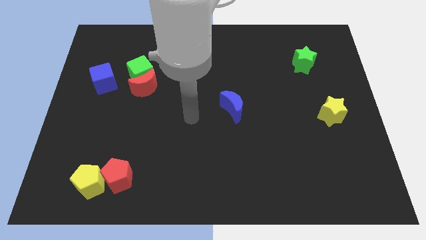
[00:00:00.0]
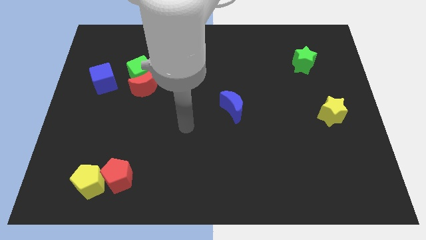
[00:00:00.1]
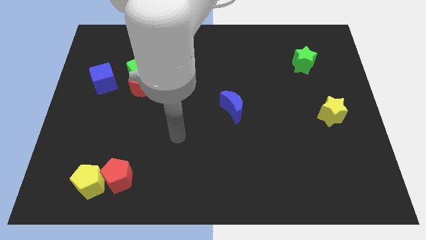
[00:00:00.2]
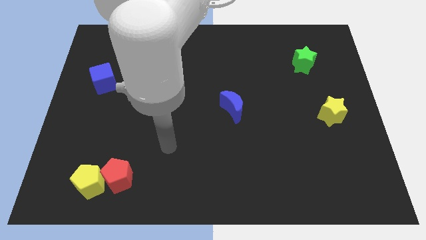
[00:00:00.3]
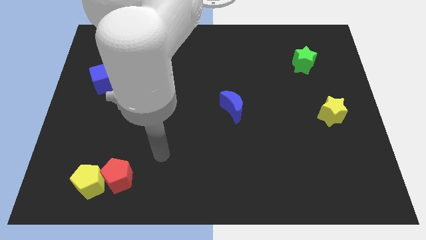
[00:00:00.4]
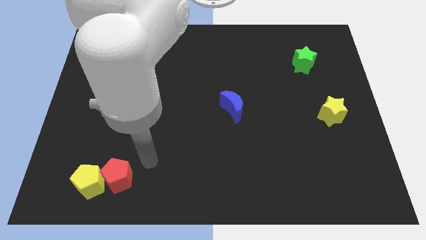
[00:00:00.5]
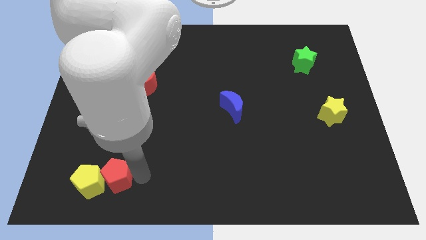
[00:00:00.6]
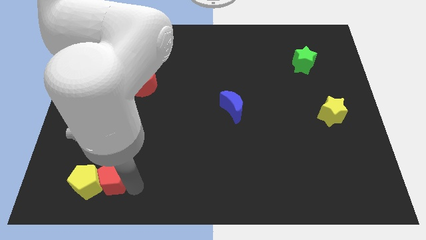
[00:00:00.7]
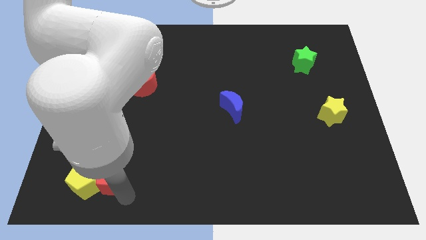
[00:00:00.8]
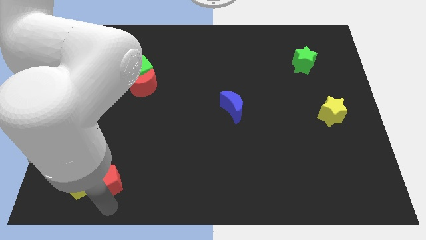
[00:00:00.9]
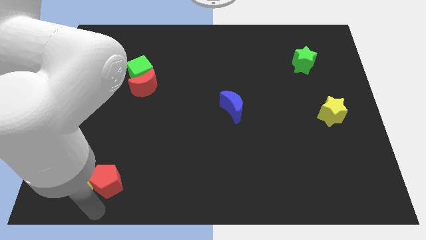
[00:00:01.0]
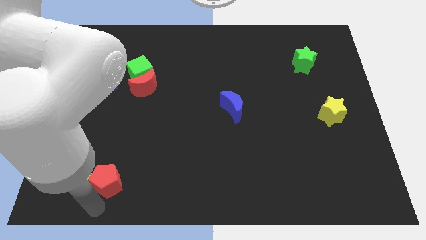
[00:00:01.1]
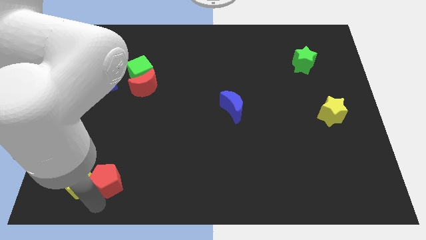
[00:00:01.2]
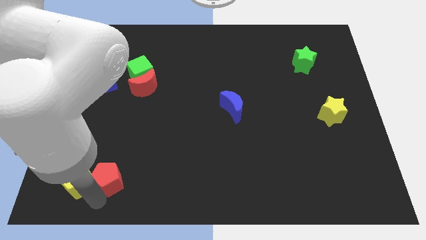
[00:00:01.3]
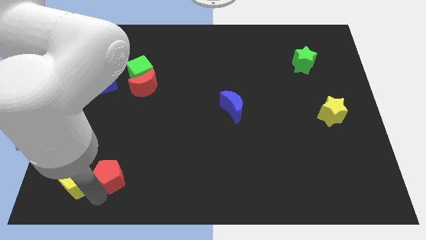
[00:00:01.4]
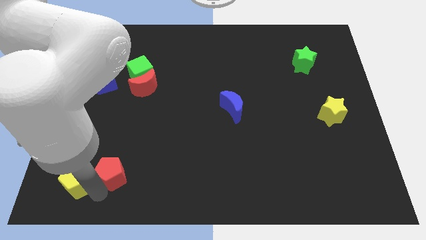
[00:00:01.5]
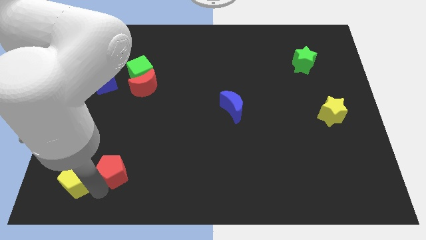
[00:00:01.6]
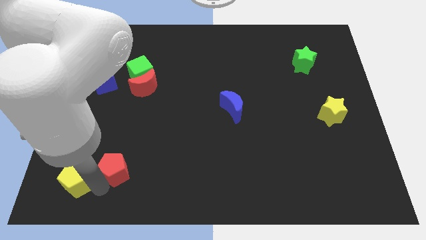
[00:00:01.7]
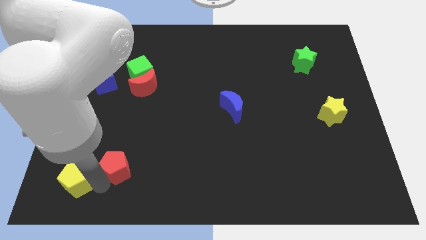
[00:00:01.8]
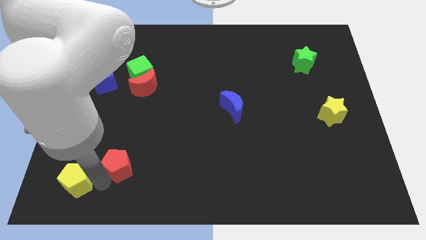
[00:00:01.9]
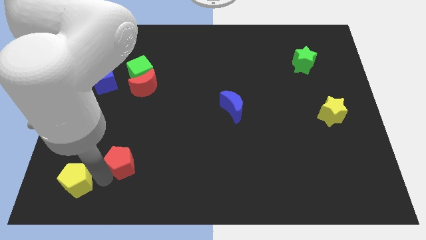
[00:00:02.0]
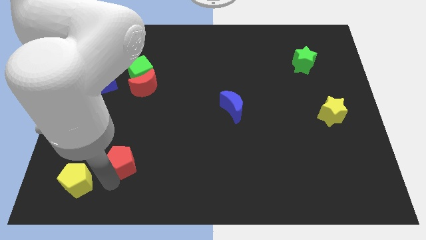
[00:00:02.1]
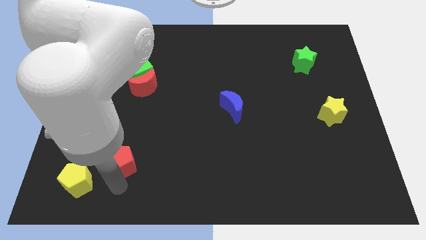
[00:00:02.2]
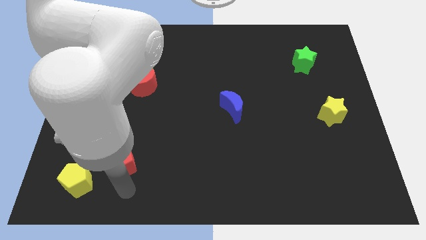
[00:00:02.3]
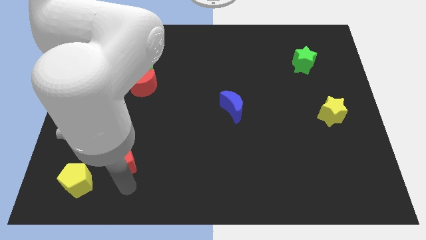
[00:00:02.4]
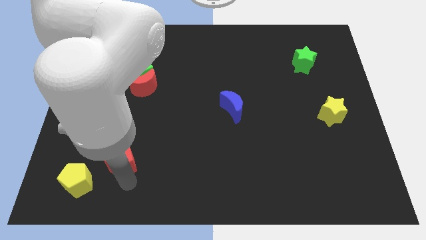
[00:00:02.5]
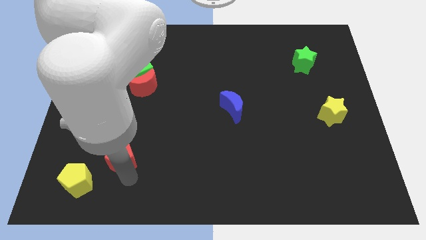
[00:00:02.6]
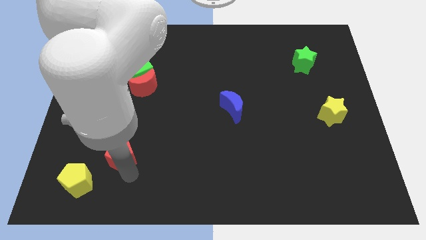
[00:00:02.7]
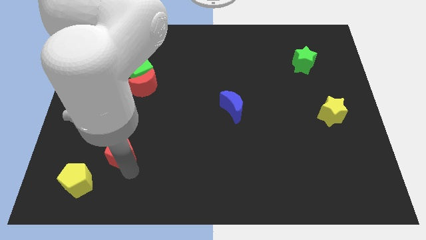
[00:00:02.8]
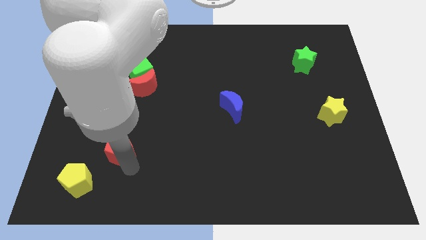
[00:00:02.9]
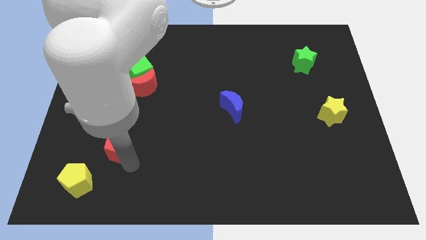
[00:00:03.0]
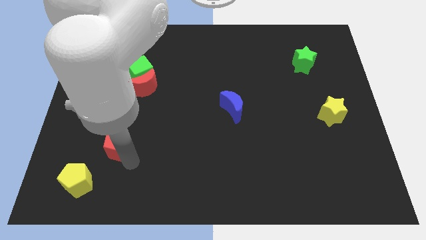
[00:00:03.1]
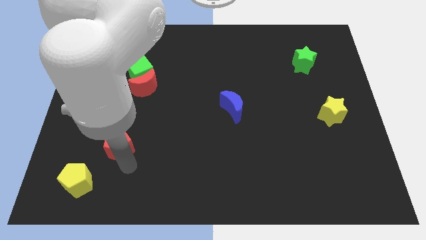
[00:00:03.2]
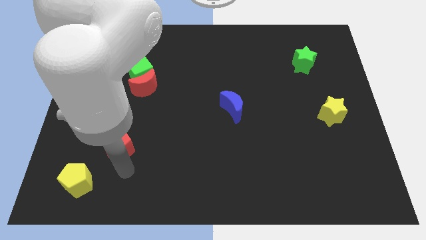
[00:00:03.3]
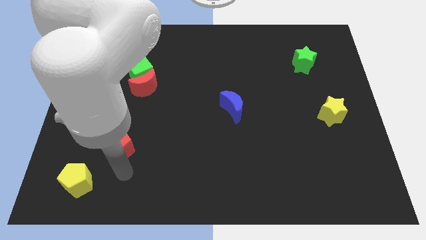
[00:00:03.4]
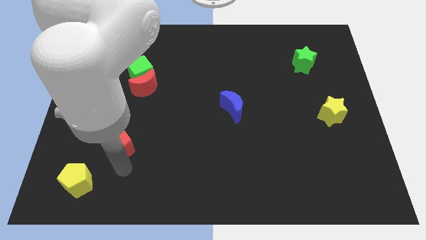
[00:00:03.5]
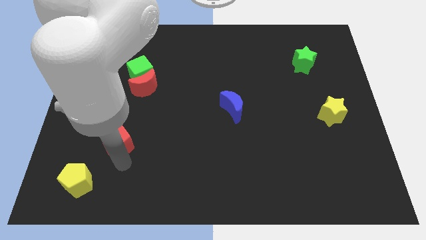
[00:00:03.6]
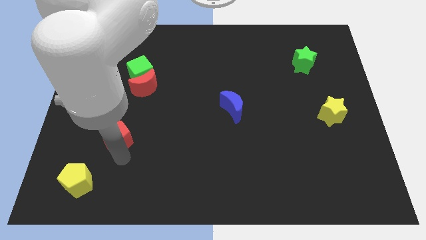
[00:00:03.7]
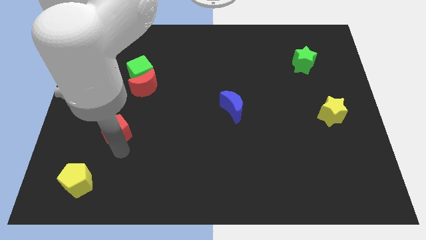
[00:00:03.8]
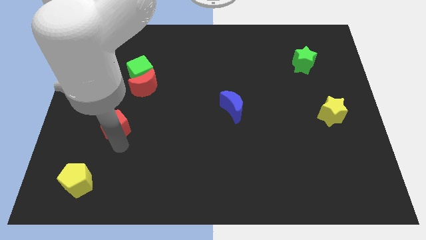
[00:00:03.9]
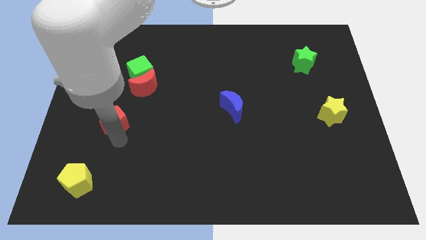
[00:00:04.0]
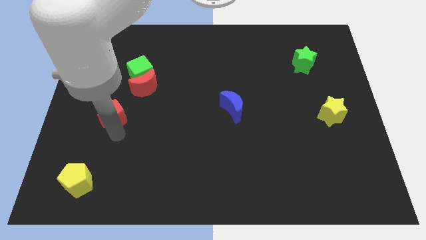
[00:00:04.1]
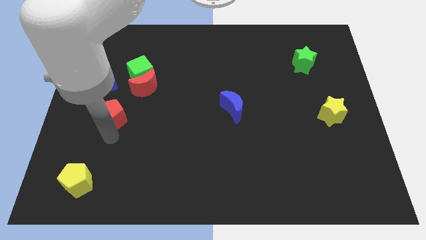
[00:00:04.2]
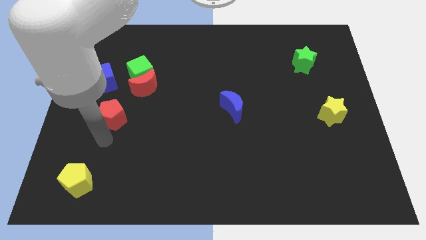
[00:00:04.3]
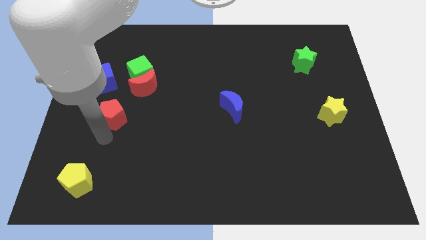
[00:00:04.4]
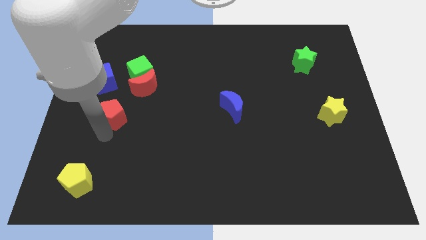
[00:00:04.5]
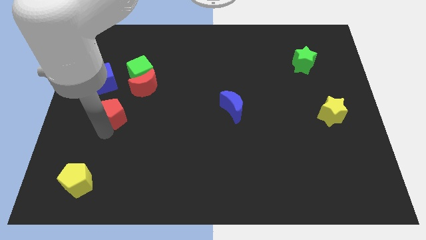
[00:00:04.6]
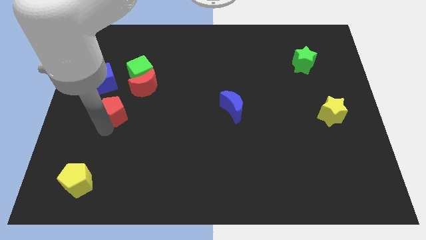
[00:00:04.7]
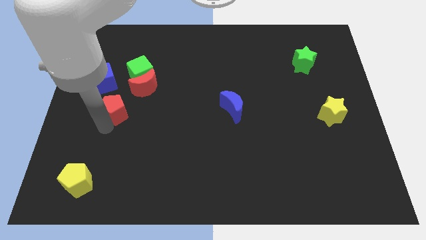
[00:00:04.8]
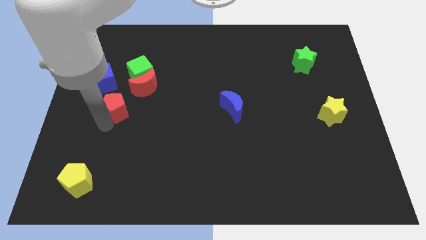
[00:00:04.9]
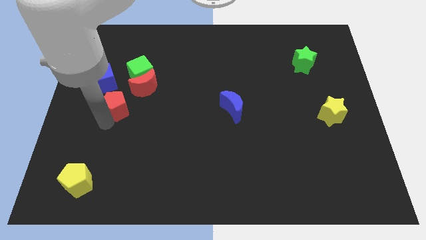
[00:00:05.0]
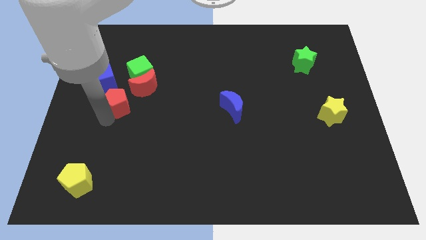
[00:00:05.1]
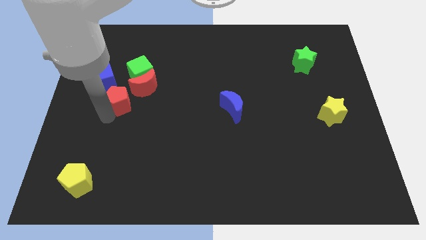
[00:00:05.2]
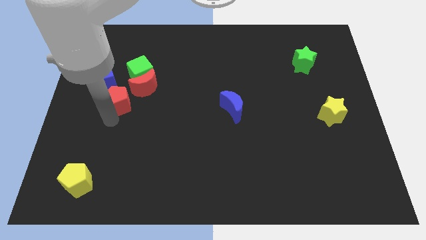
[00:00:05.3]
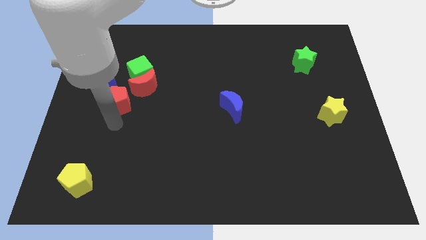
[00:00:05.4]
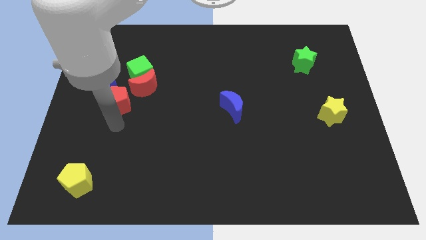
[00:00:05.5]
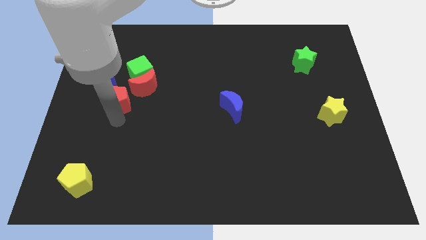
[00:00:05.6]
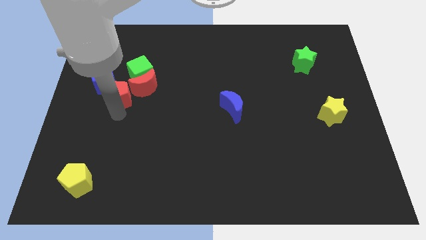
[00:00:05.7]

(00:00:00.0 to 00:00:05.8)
push the red pentagon upwards
